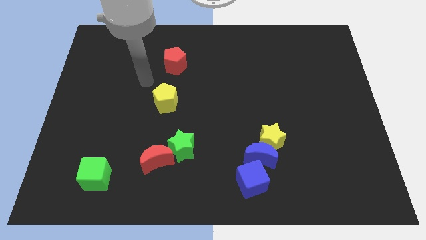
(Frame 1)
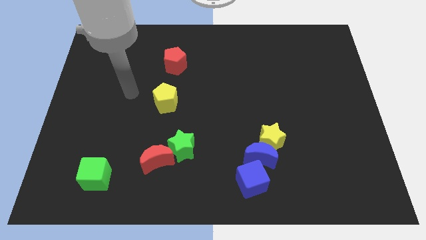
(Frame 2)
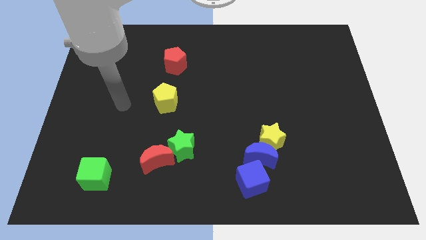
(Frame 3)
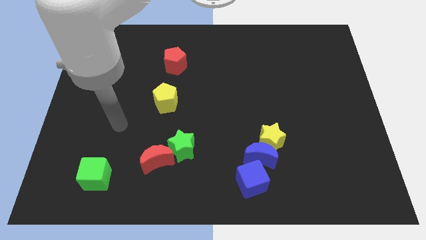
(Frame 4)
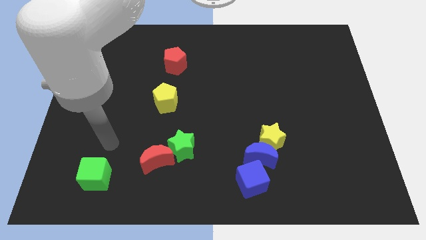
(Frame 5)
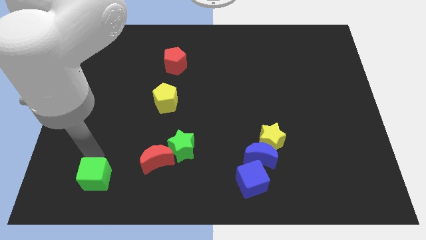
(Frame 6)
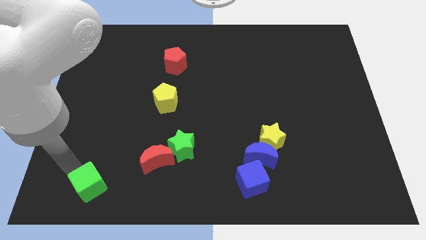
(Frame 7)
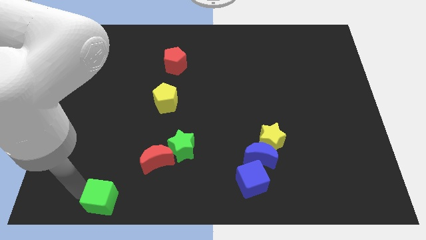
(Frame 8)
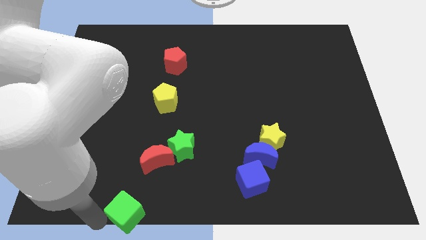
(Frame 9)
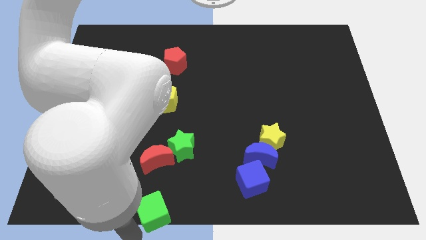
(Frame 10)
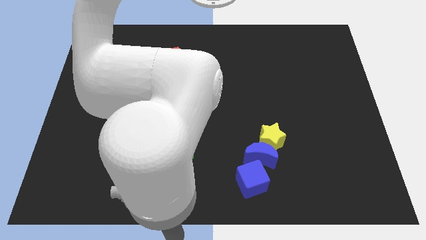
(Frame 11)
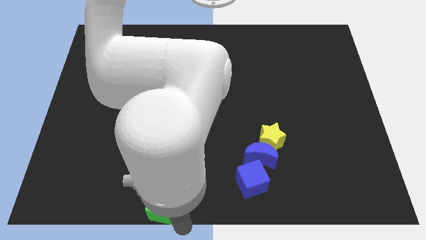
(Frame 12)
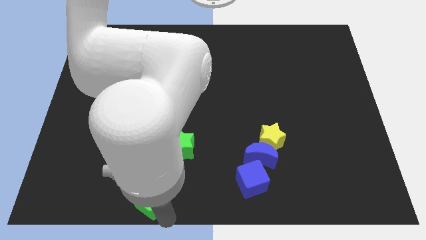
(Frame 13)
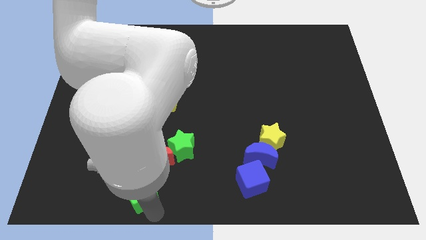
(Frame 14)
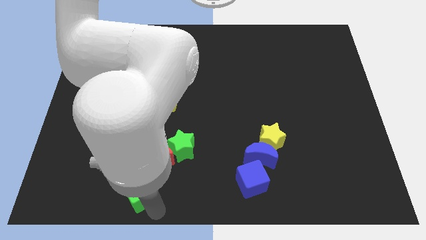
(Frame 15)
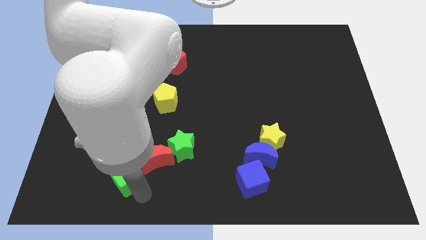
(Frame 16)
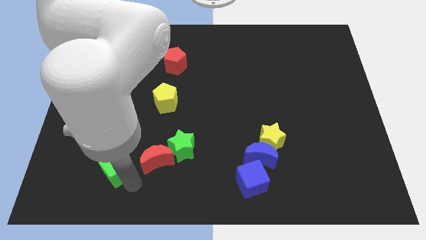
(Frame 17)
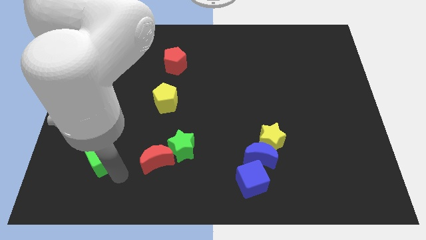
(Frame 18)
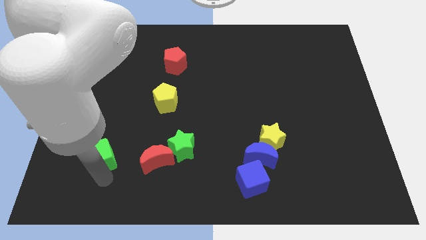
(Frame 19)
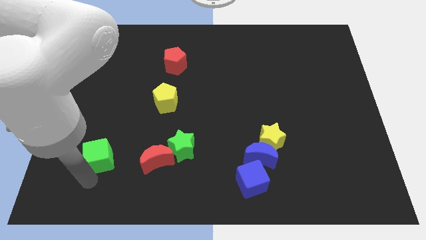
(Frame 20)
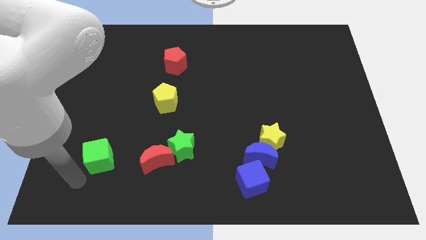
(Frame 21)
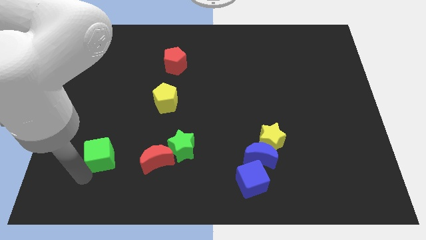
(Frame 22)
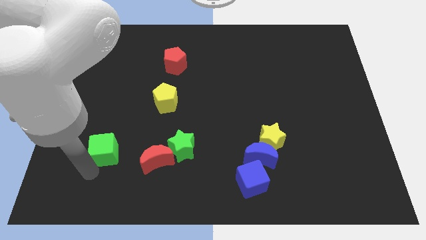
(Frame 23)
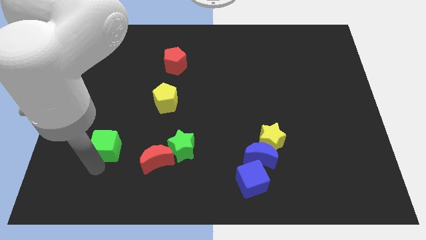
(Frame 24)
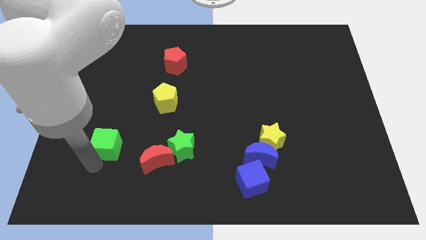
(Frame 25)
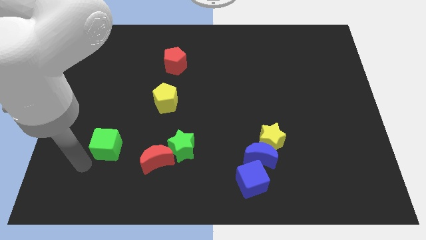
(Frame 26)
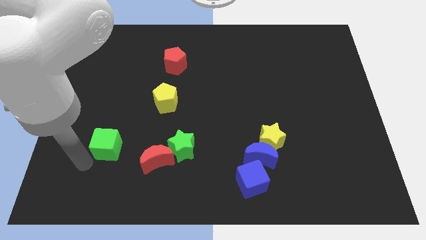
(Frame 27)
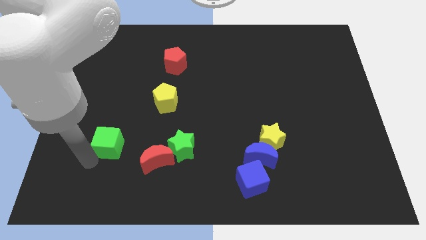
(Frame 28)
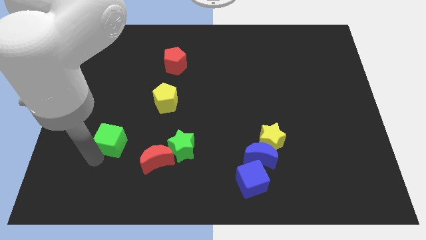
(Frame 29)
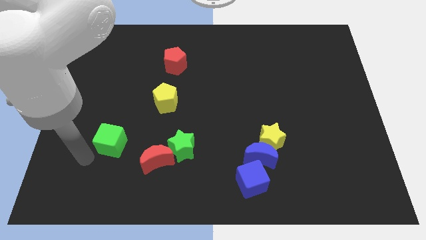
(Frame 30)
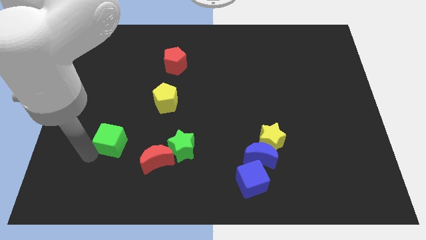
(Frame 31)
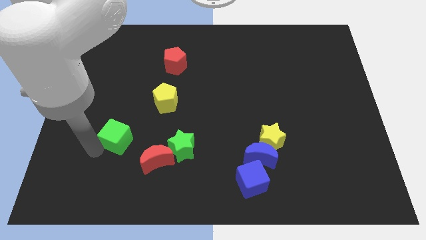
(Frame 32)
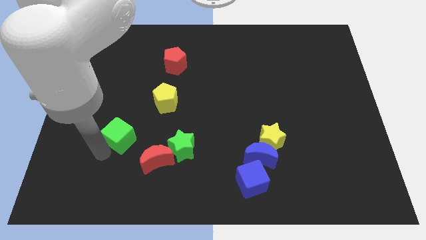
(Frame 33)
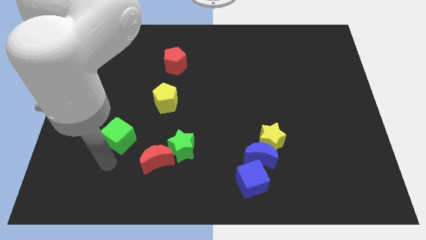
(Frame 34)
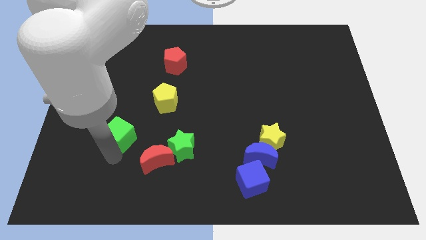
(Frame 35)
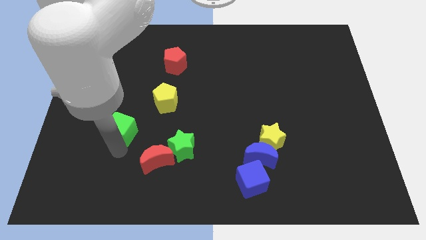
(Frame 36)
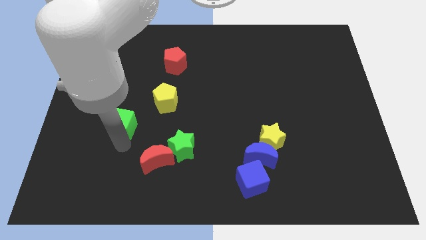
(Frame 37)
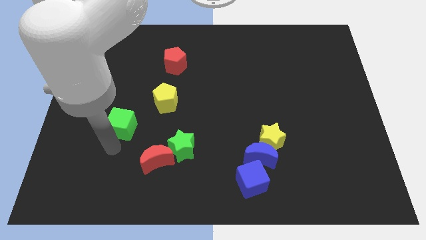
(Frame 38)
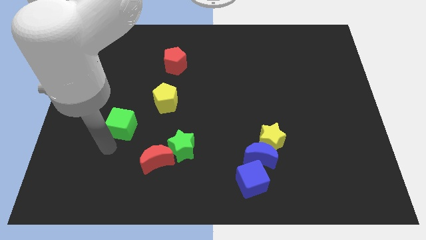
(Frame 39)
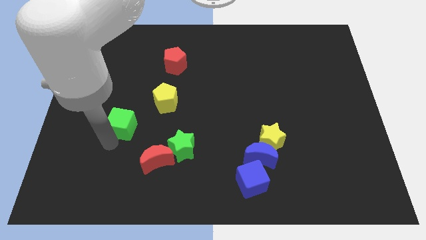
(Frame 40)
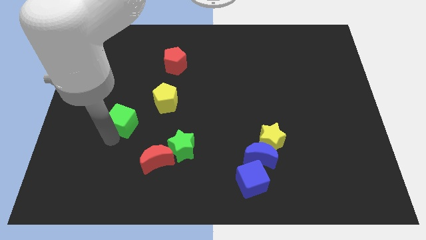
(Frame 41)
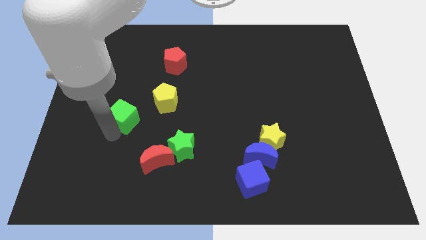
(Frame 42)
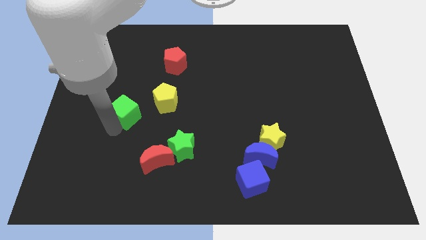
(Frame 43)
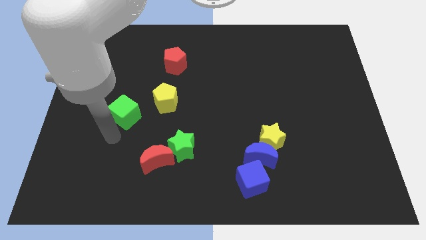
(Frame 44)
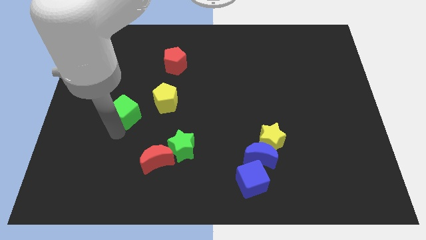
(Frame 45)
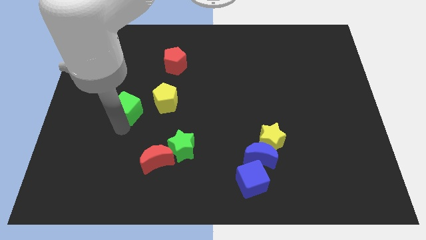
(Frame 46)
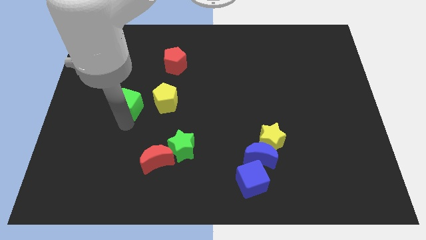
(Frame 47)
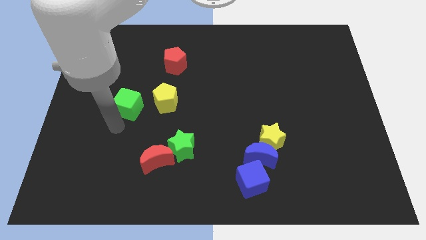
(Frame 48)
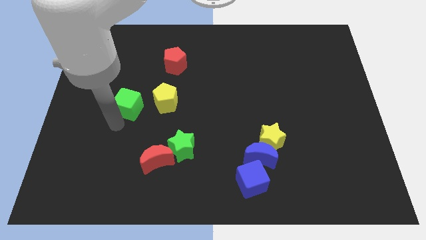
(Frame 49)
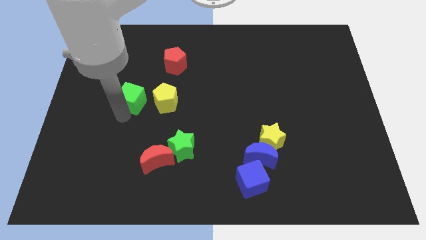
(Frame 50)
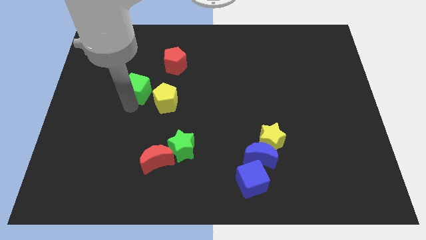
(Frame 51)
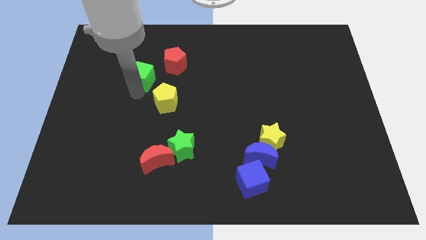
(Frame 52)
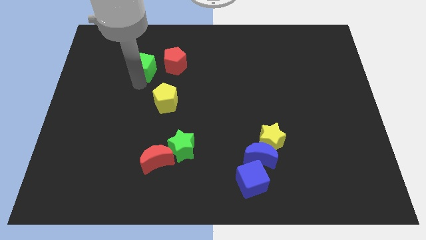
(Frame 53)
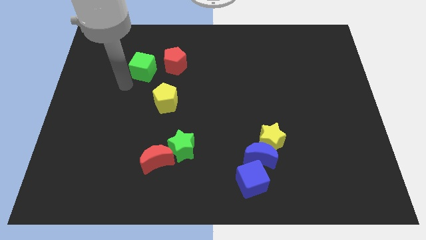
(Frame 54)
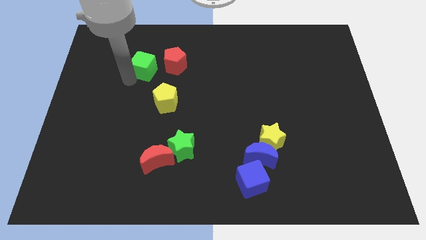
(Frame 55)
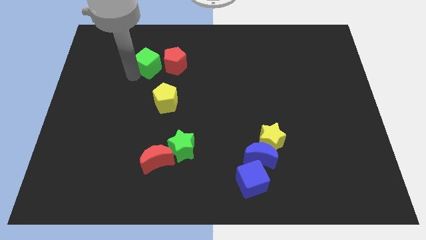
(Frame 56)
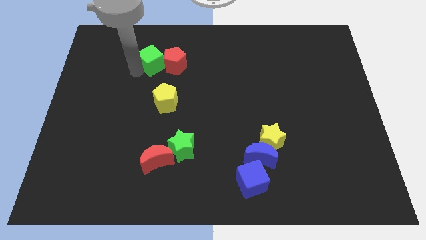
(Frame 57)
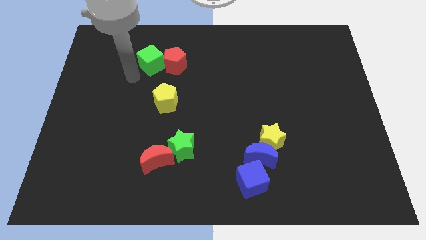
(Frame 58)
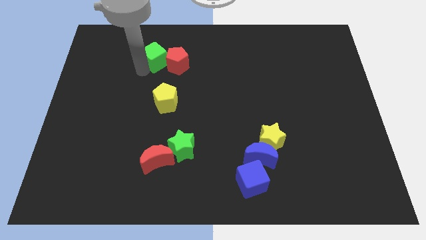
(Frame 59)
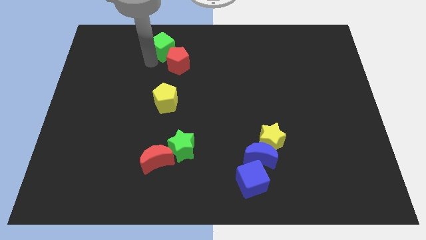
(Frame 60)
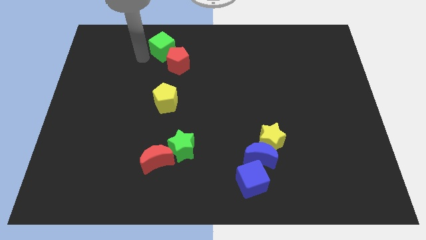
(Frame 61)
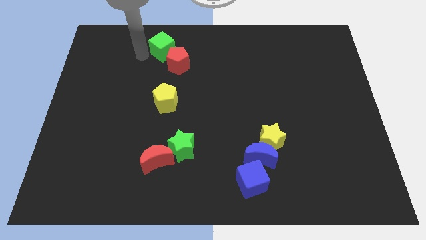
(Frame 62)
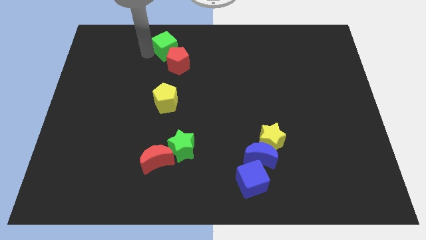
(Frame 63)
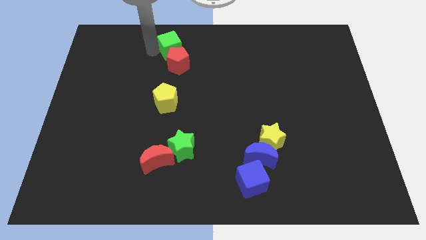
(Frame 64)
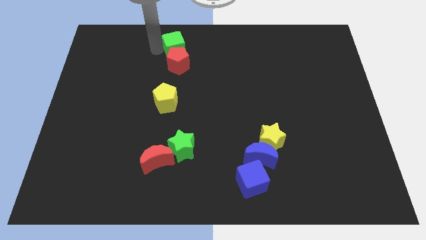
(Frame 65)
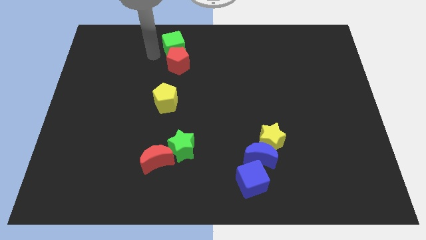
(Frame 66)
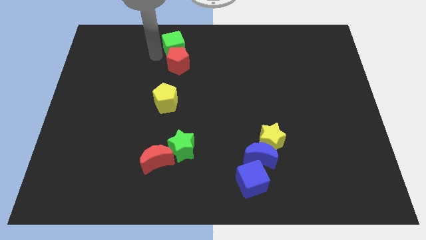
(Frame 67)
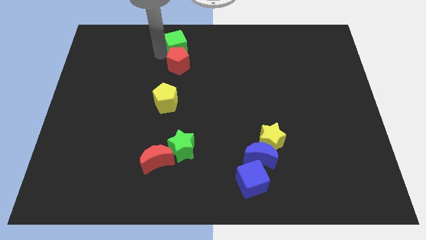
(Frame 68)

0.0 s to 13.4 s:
move the green cube to the top
